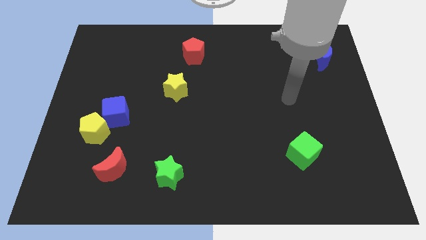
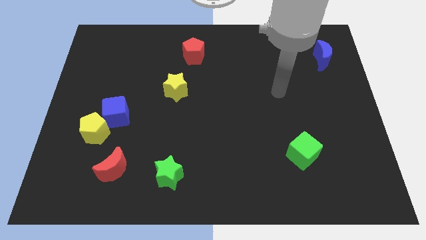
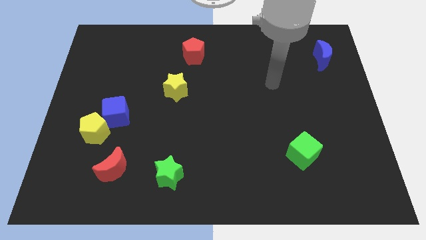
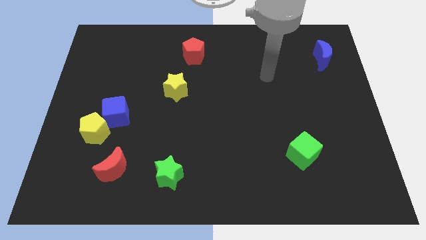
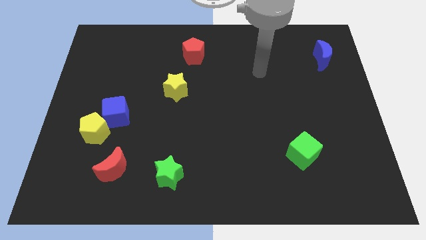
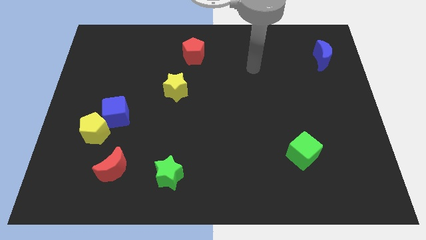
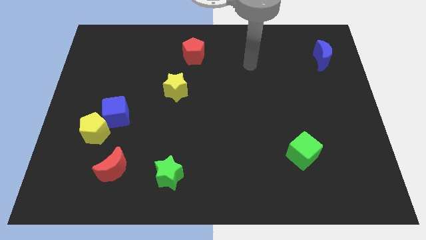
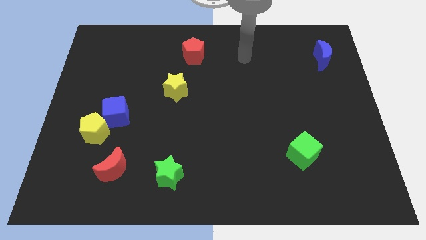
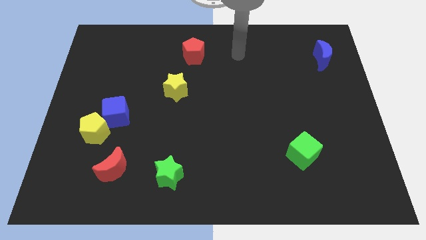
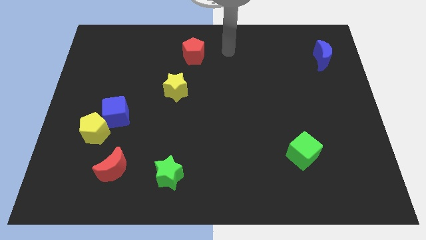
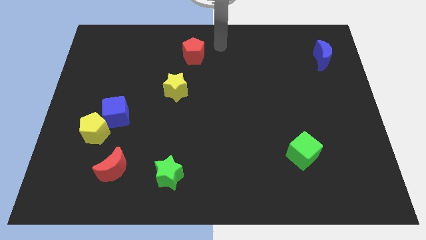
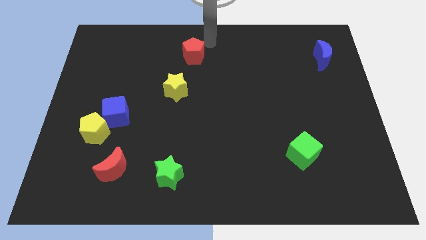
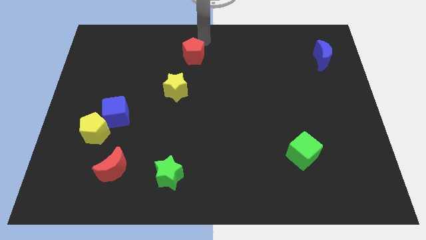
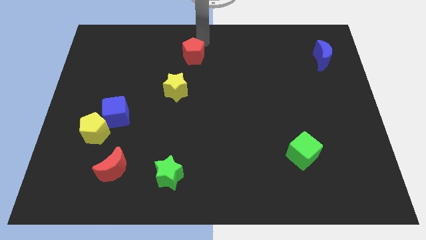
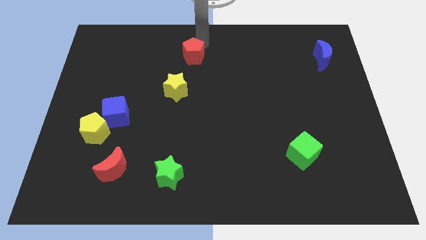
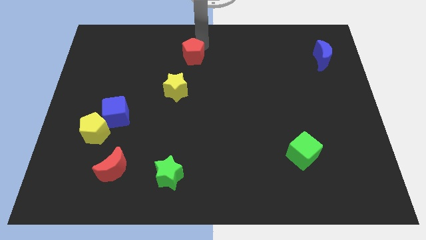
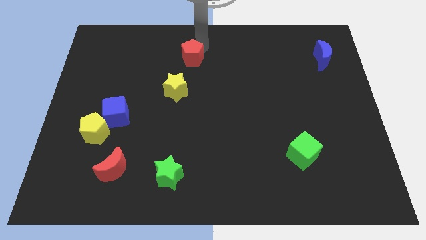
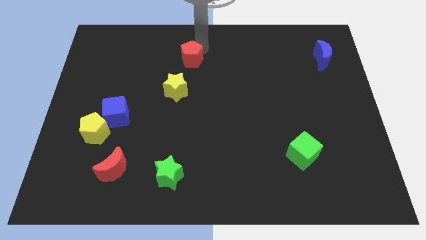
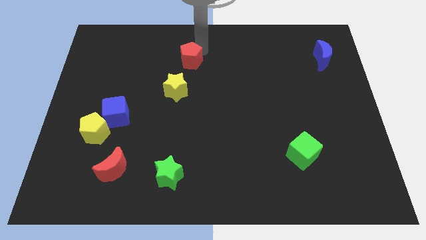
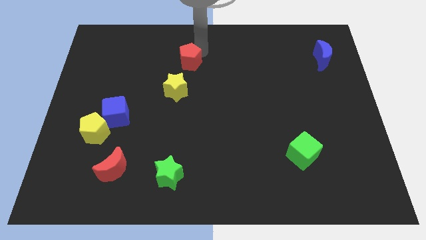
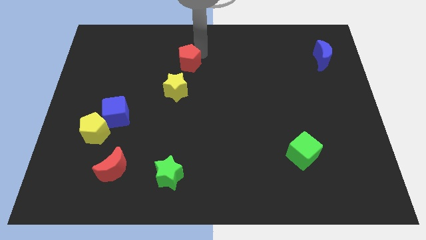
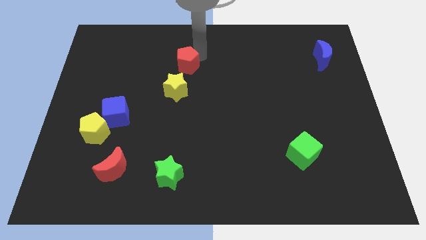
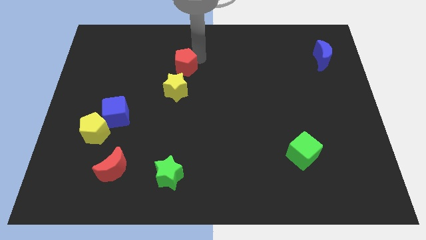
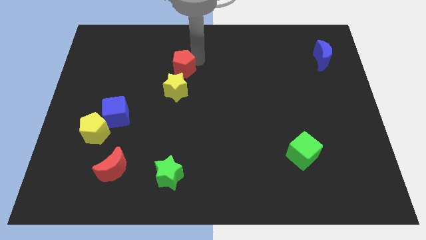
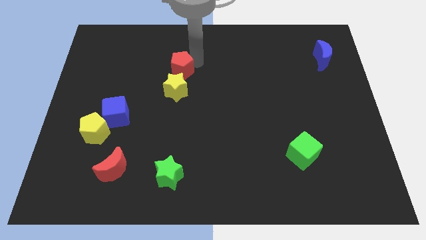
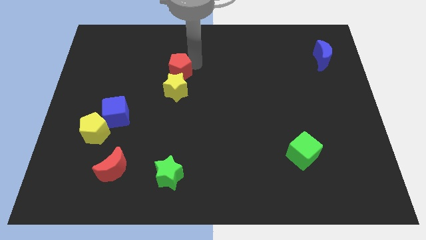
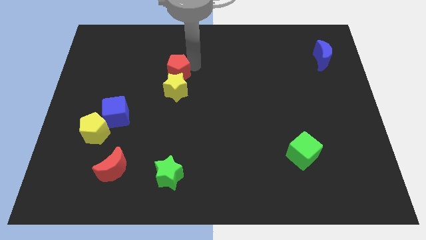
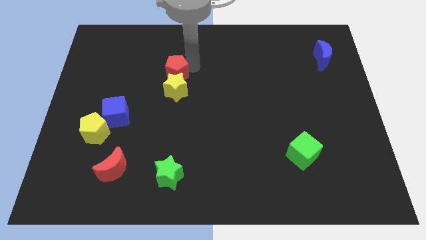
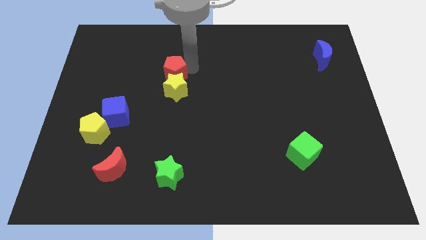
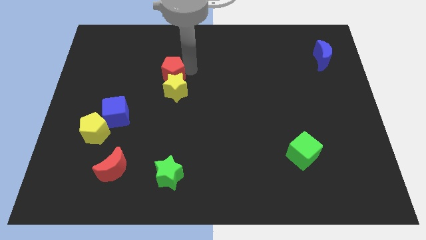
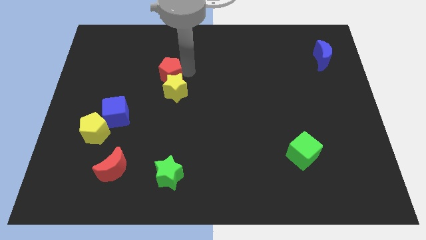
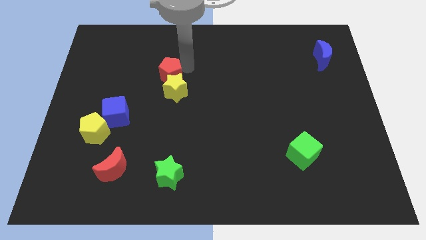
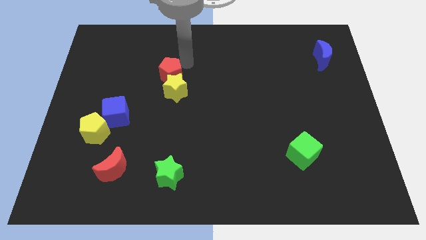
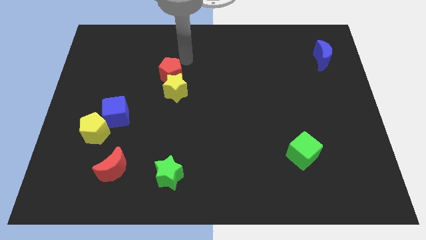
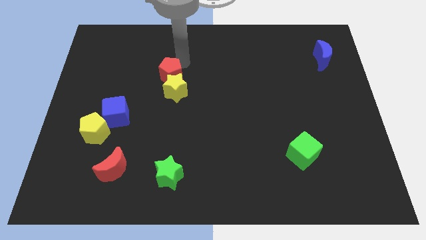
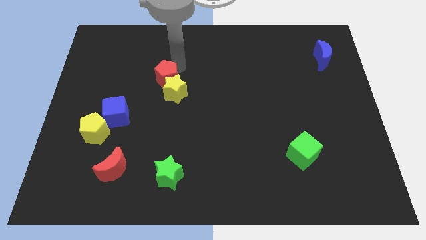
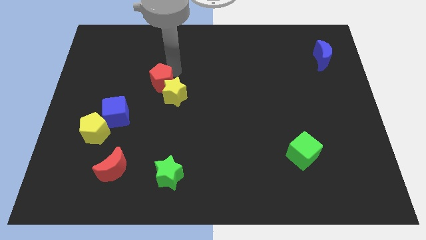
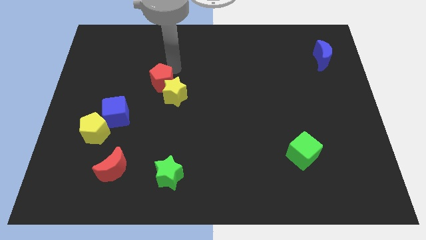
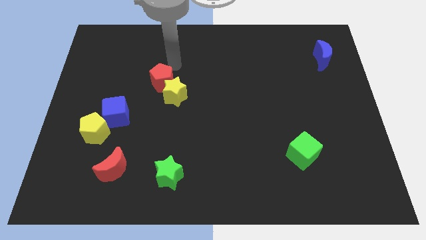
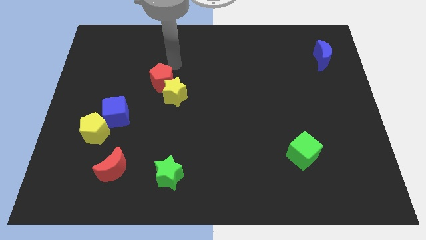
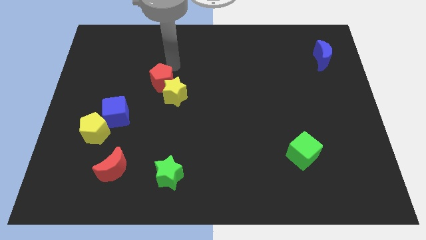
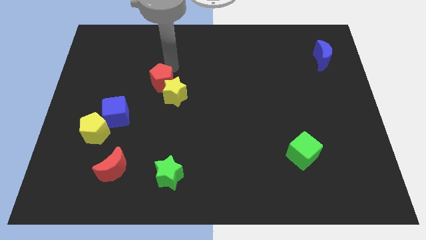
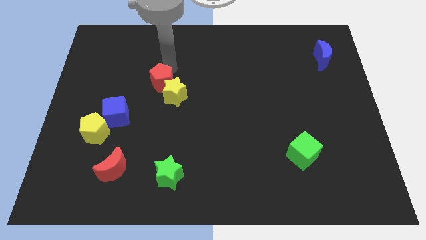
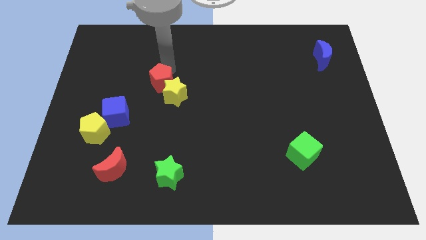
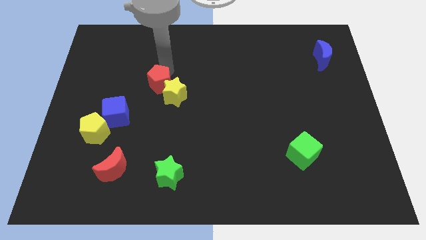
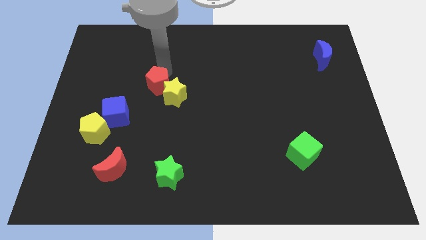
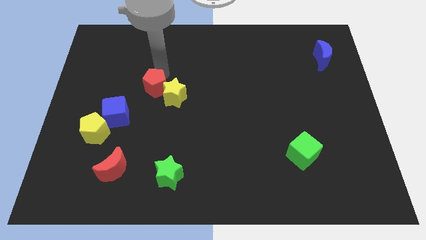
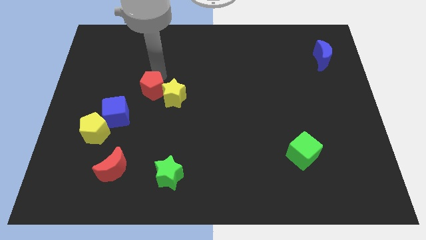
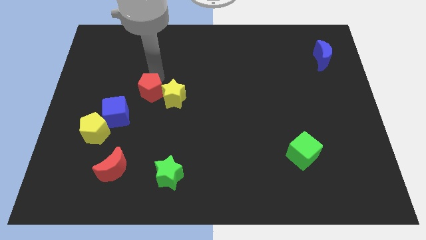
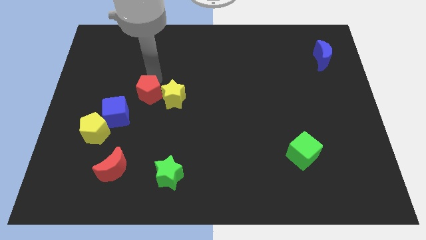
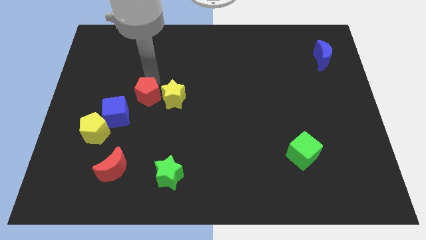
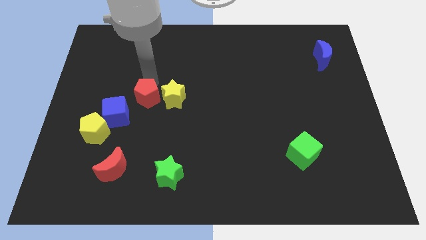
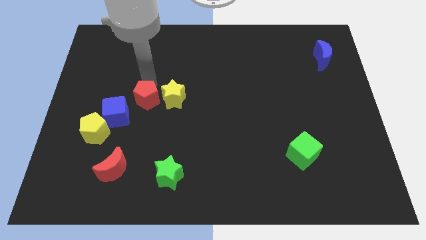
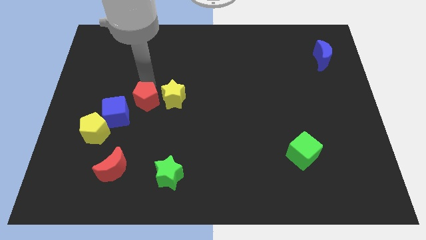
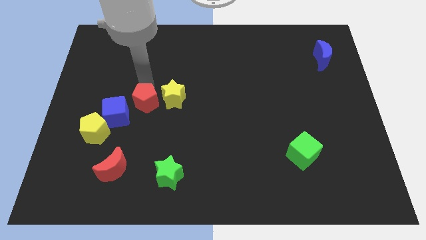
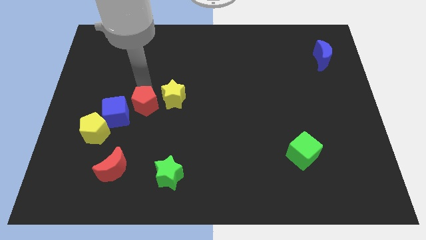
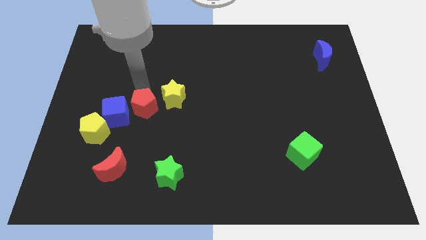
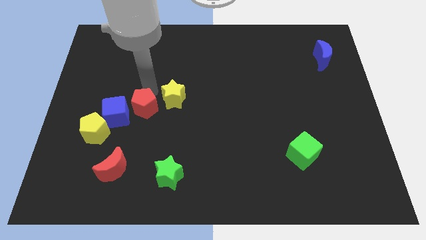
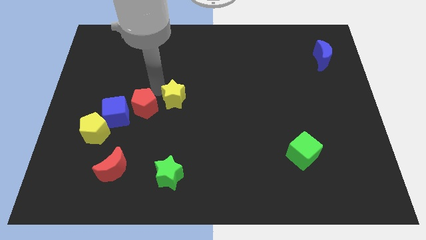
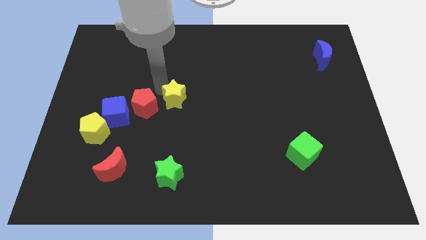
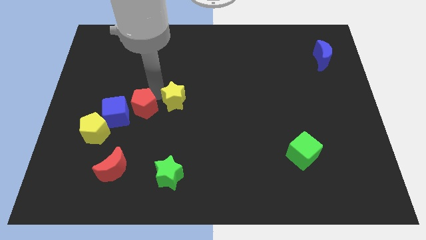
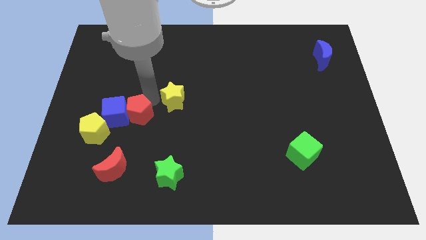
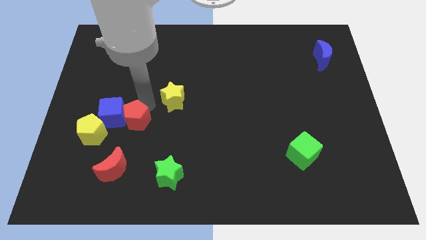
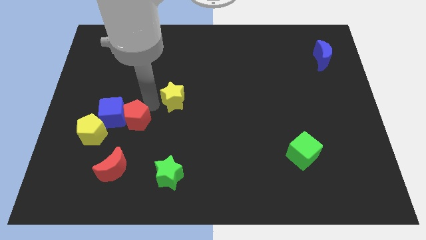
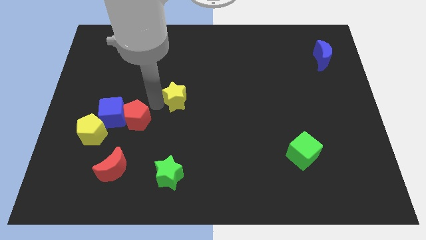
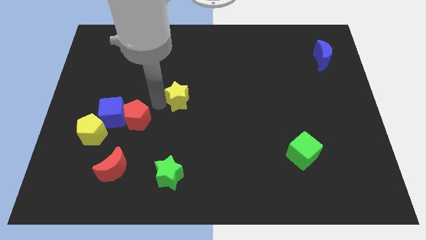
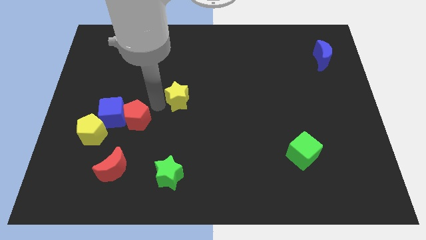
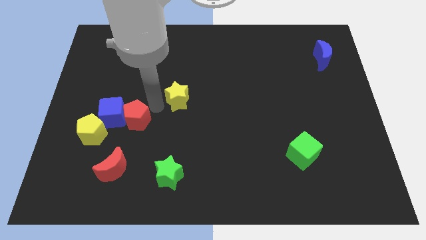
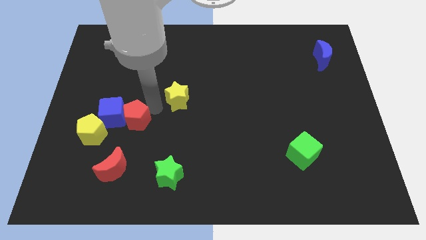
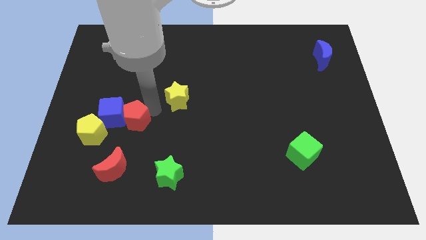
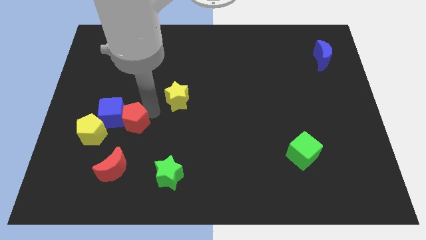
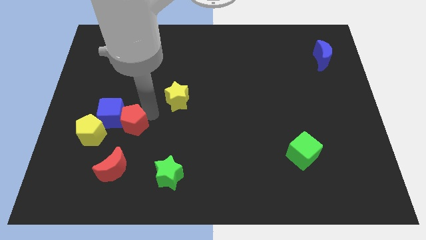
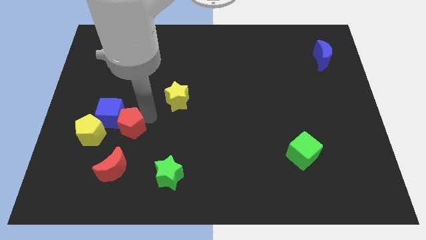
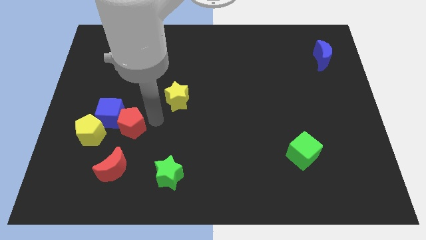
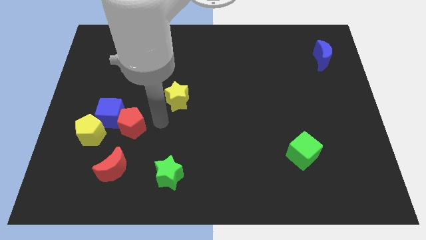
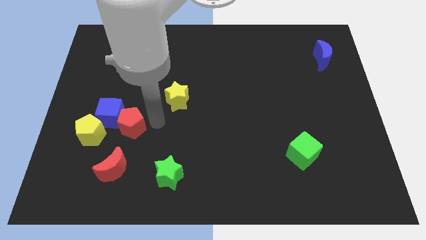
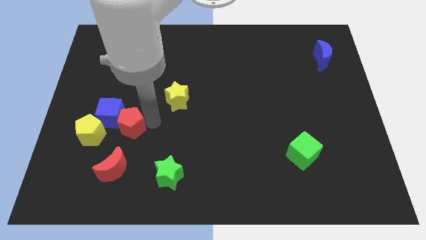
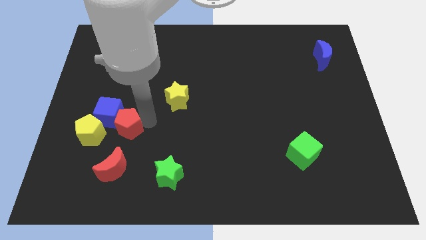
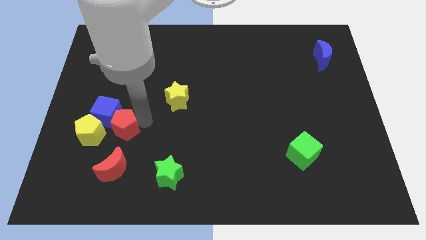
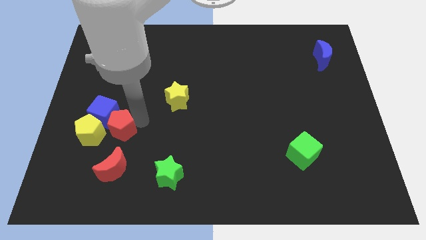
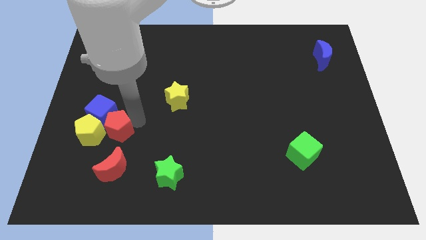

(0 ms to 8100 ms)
put the red pentagon towards the yellow pentagon
